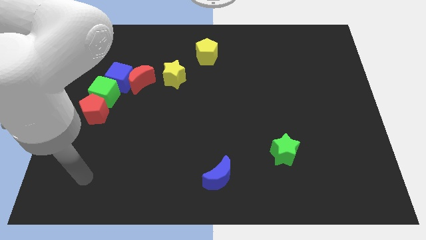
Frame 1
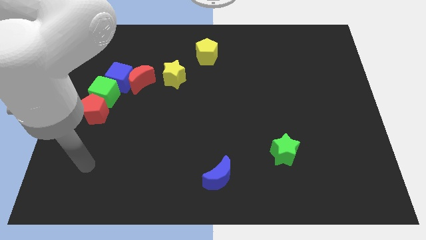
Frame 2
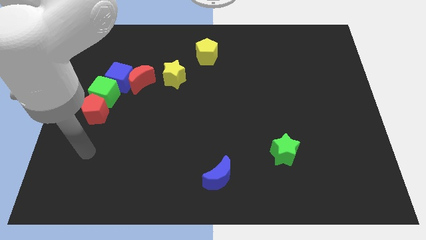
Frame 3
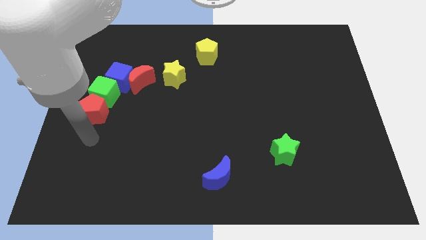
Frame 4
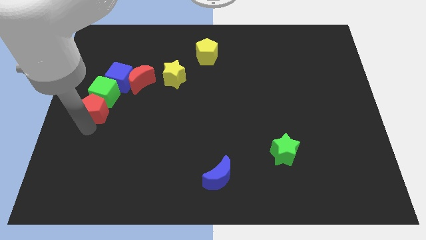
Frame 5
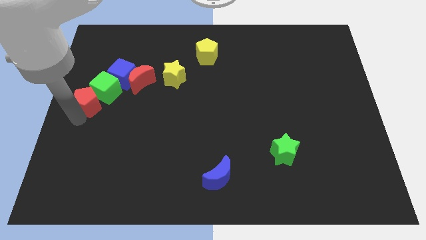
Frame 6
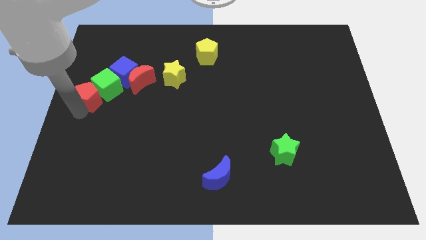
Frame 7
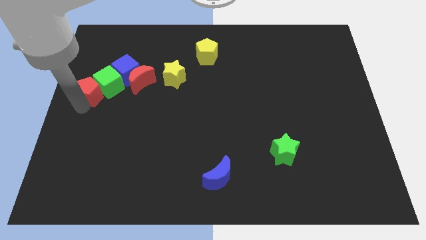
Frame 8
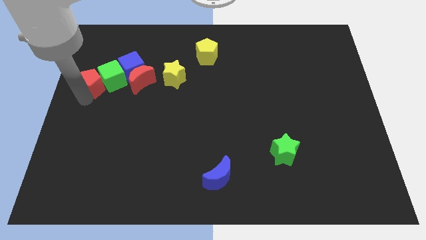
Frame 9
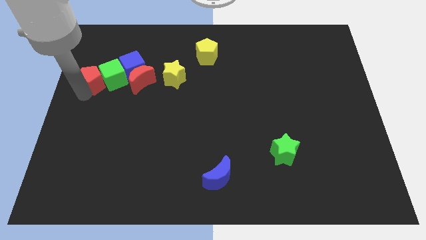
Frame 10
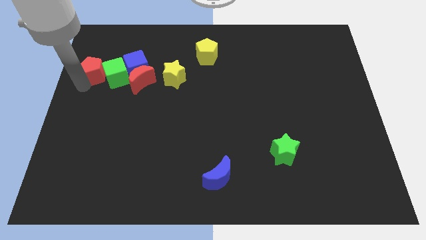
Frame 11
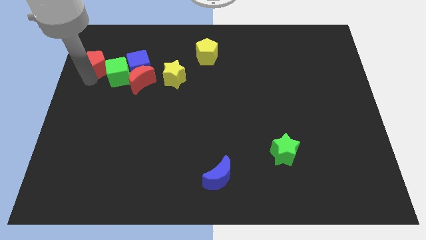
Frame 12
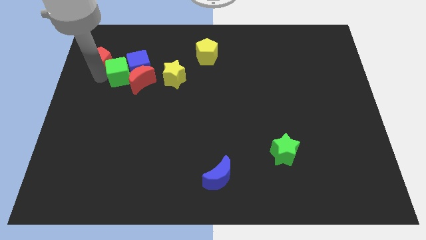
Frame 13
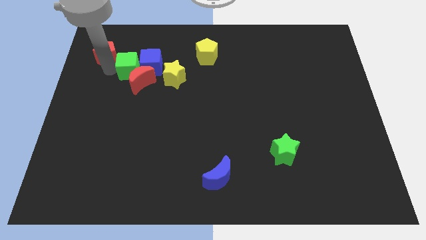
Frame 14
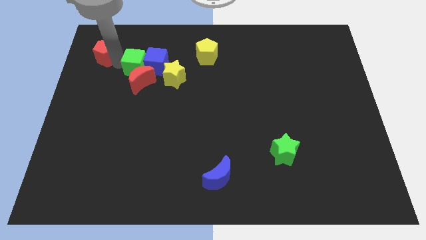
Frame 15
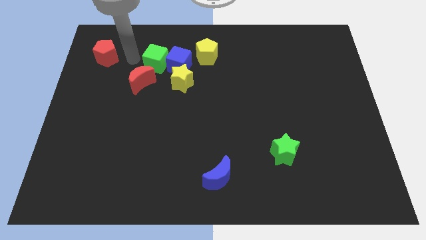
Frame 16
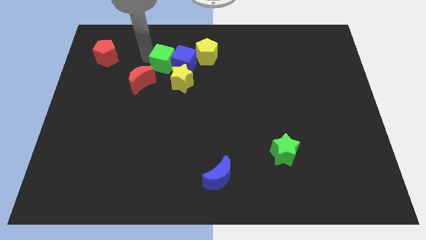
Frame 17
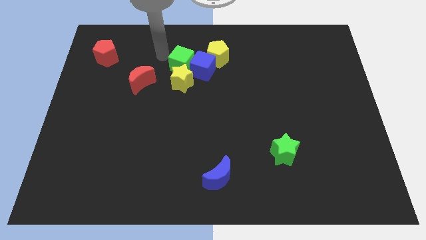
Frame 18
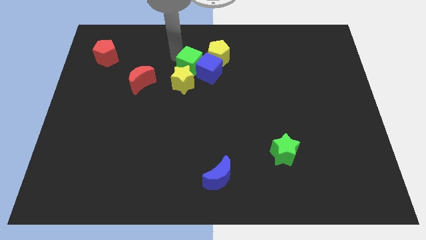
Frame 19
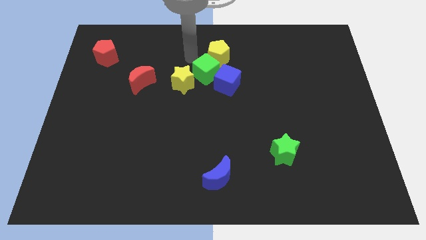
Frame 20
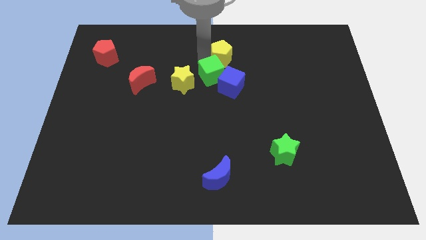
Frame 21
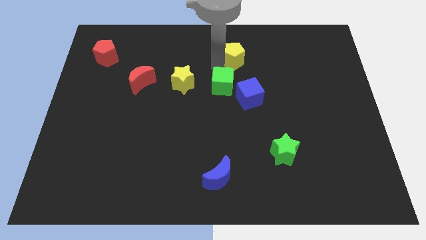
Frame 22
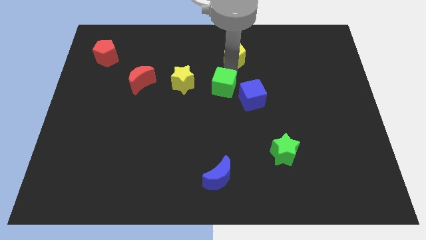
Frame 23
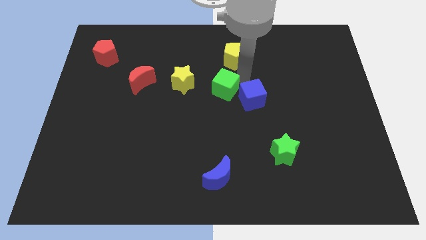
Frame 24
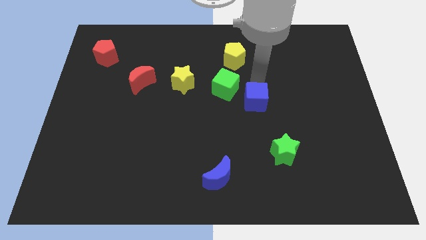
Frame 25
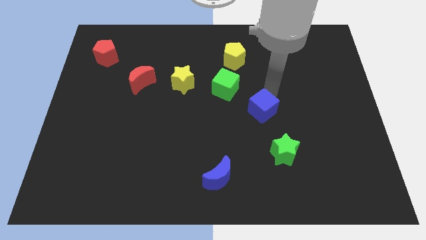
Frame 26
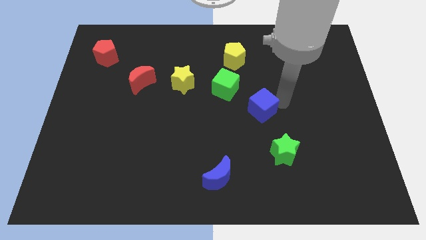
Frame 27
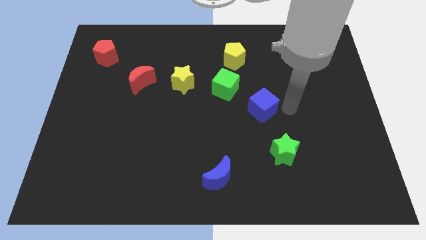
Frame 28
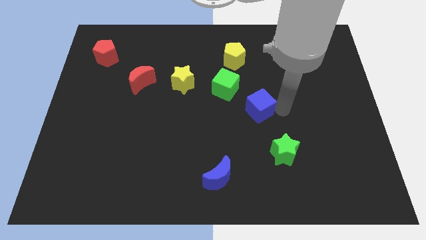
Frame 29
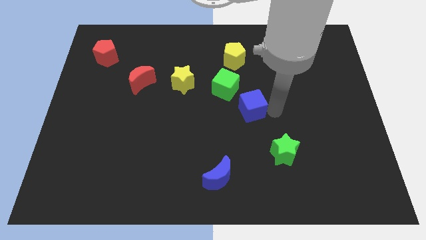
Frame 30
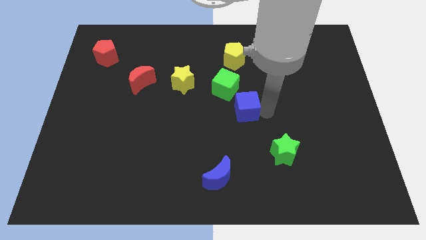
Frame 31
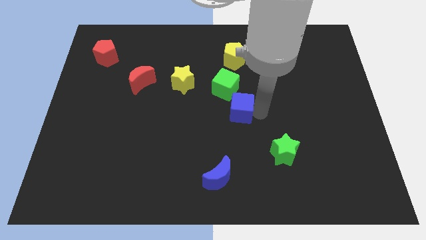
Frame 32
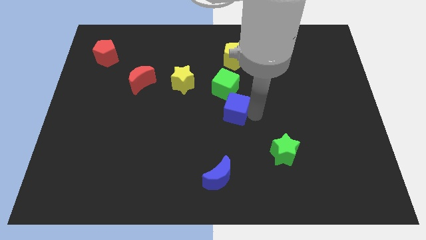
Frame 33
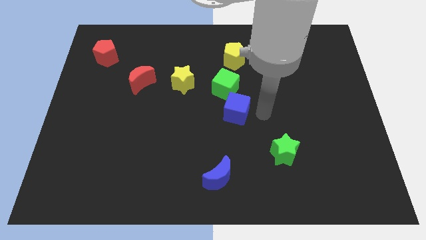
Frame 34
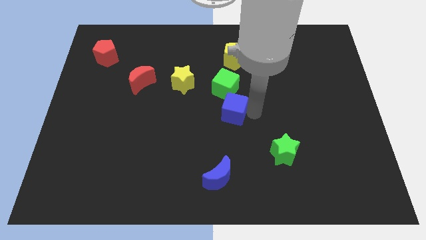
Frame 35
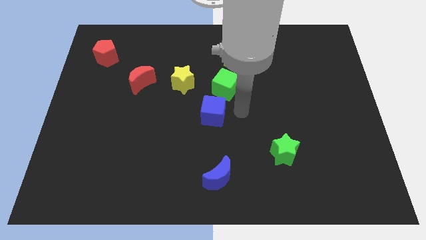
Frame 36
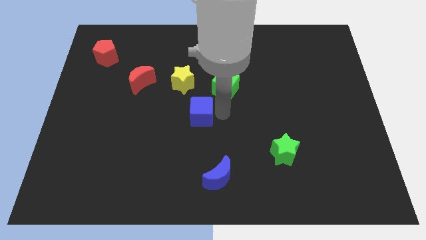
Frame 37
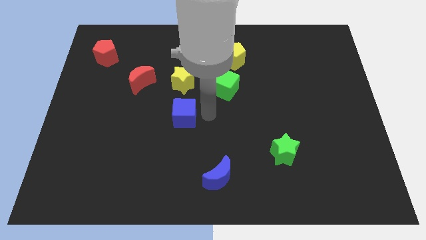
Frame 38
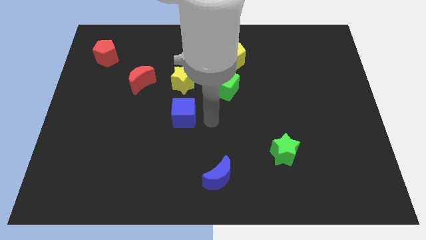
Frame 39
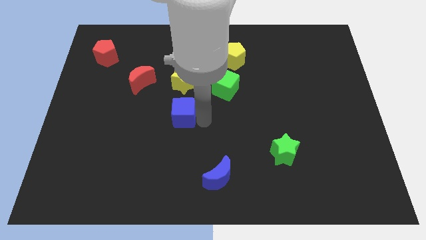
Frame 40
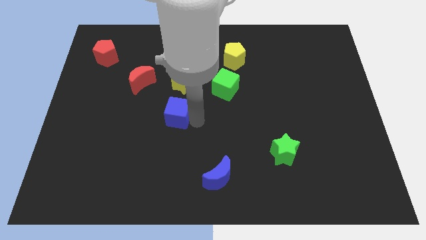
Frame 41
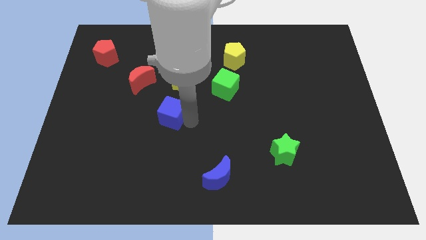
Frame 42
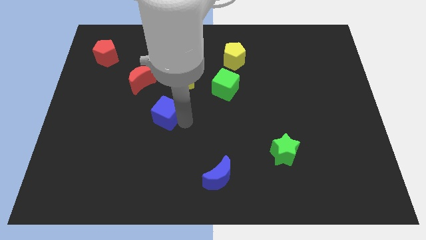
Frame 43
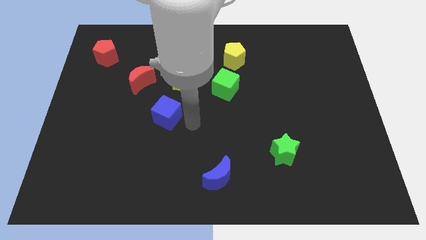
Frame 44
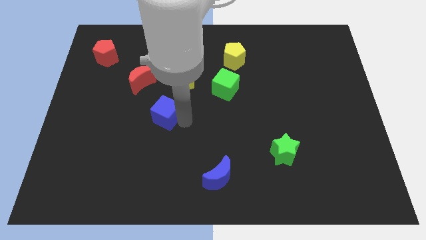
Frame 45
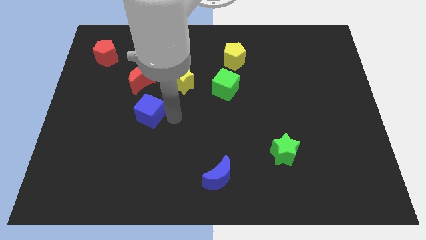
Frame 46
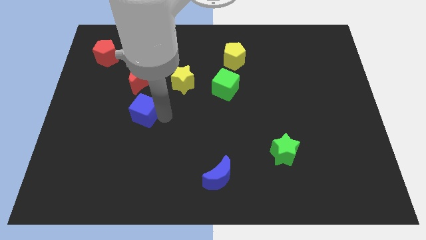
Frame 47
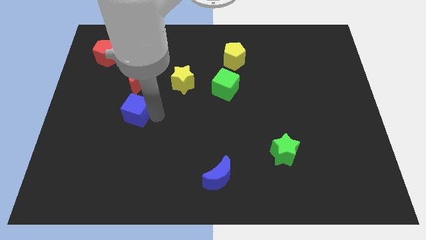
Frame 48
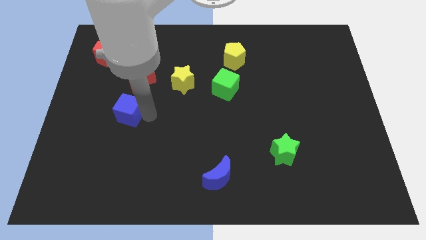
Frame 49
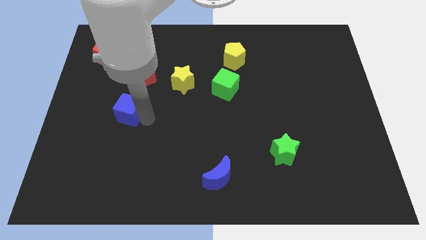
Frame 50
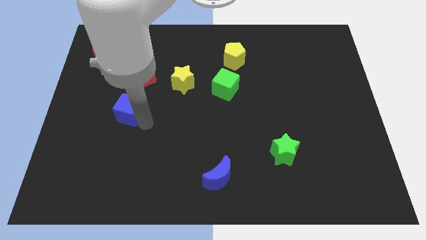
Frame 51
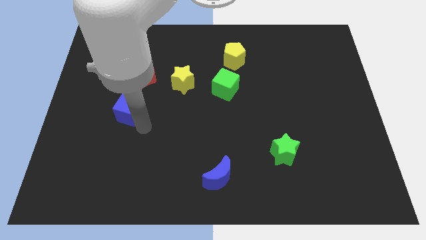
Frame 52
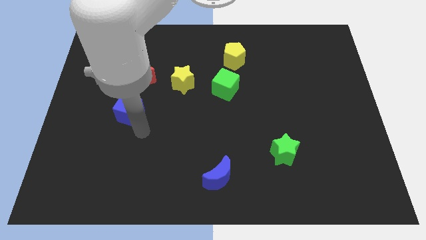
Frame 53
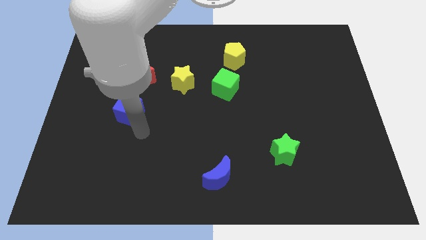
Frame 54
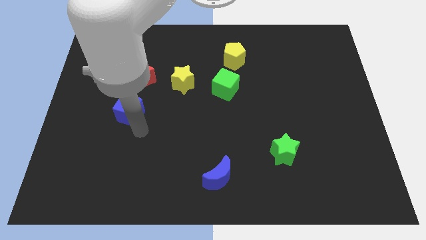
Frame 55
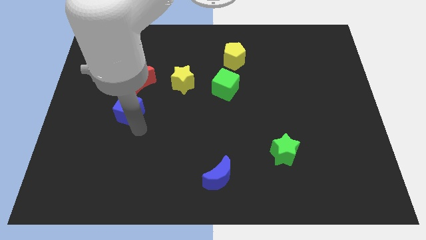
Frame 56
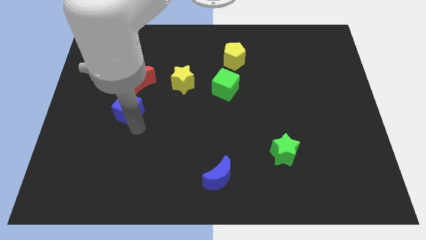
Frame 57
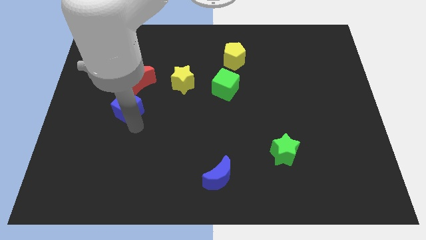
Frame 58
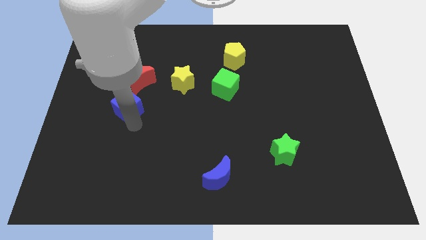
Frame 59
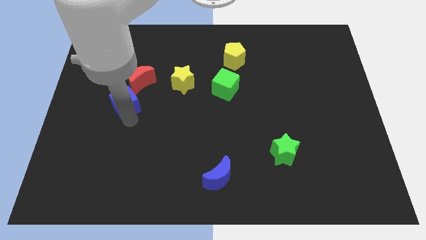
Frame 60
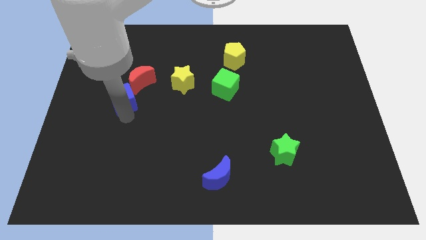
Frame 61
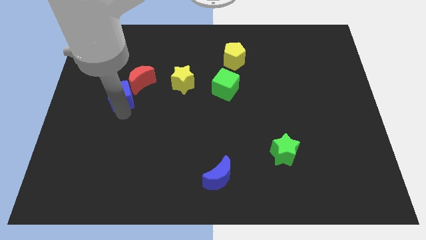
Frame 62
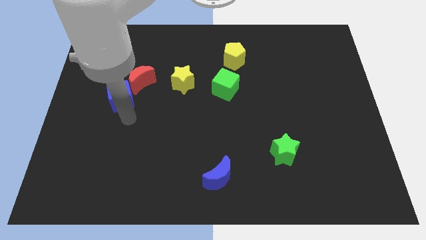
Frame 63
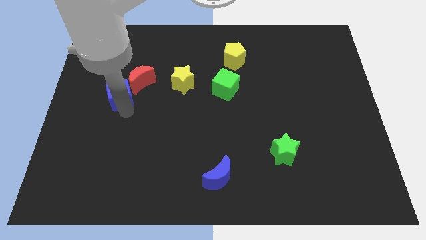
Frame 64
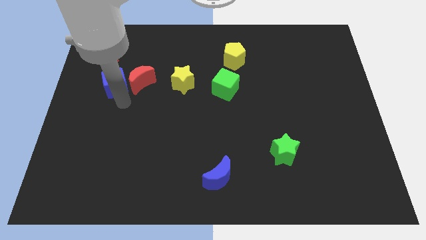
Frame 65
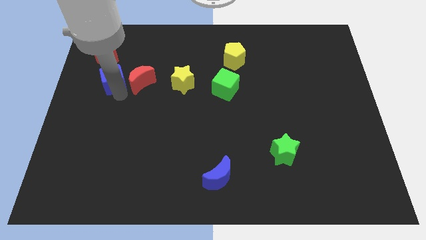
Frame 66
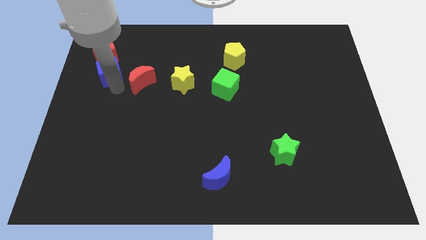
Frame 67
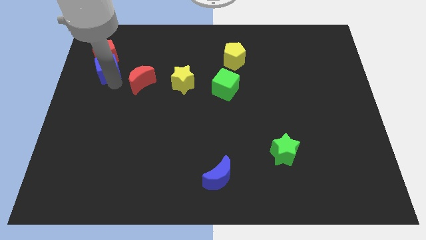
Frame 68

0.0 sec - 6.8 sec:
move the blue cube to the red pentagon

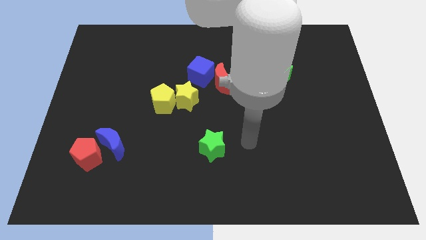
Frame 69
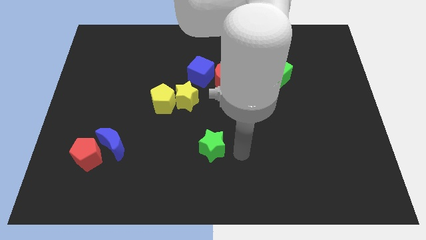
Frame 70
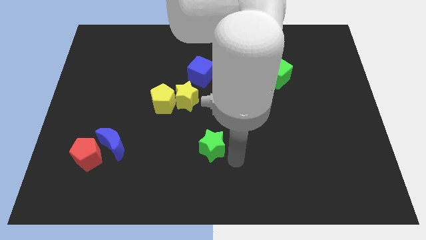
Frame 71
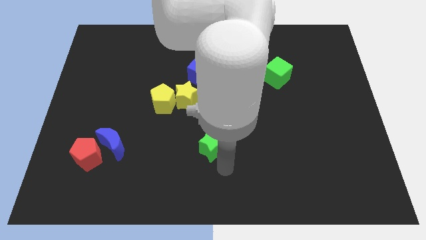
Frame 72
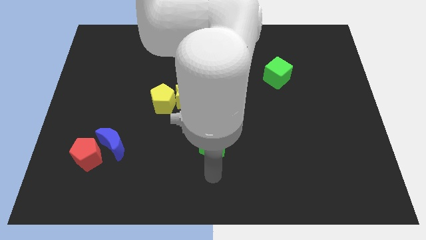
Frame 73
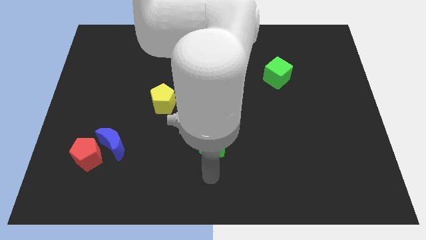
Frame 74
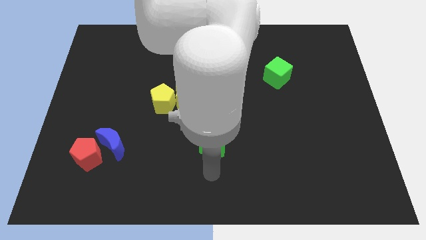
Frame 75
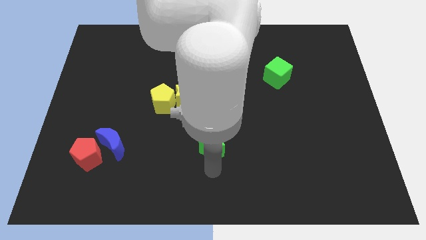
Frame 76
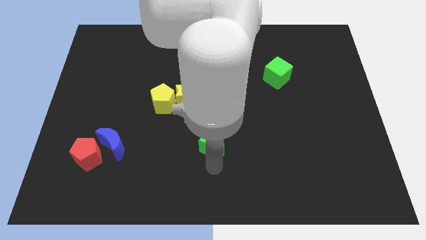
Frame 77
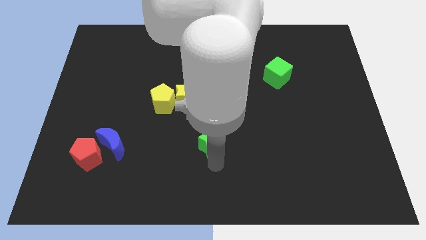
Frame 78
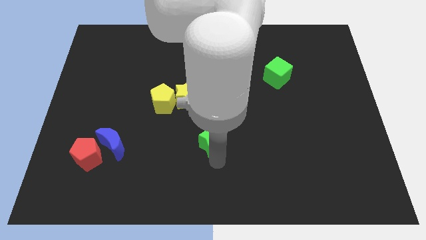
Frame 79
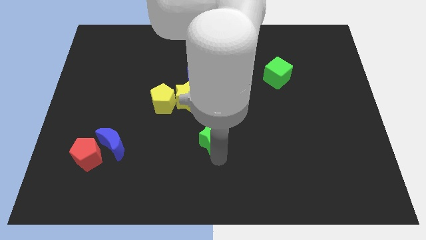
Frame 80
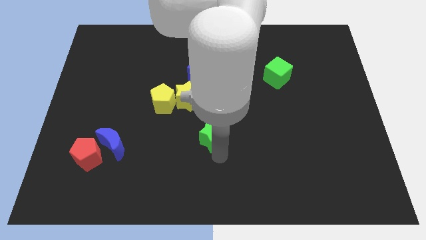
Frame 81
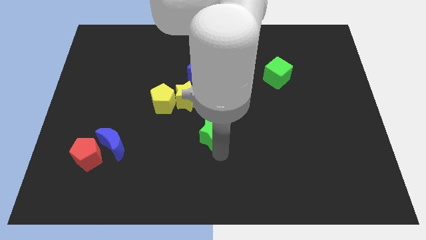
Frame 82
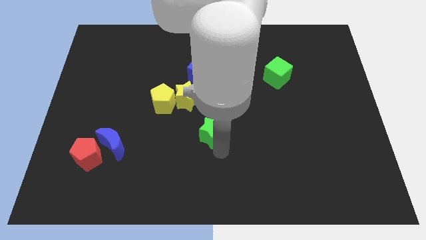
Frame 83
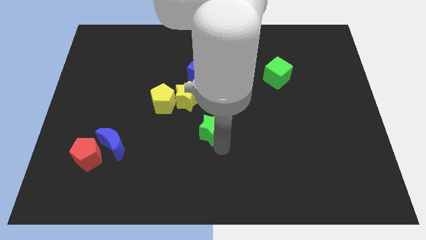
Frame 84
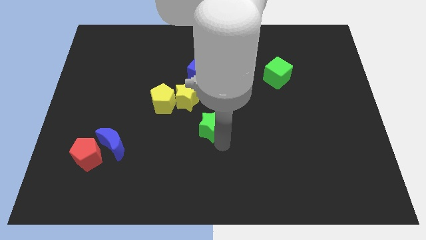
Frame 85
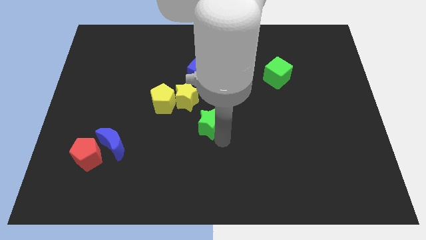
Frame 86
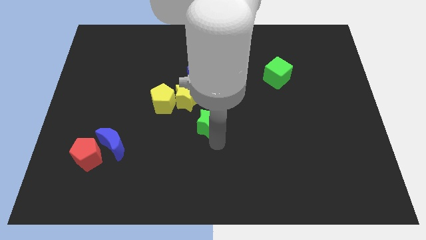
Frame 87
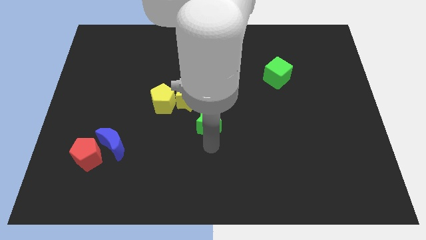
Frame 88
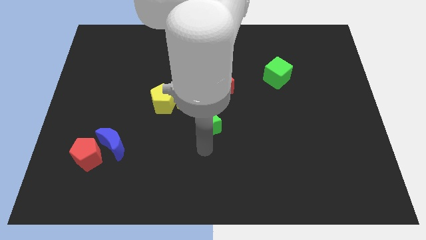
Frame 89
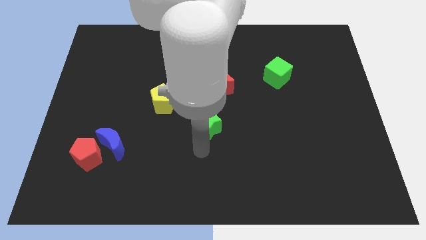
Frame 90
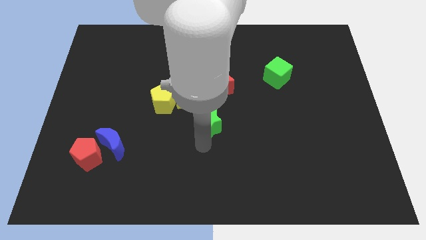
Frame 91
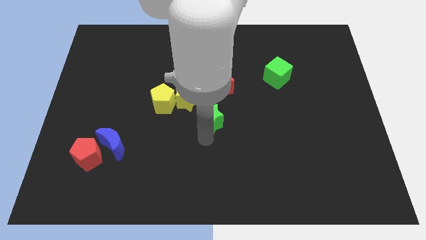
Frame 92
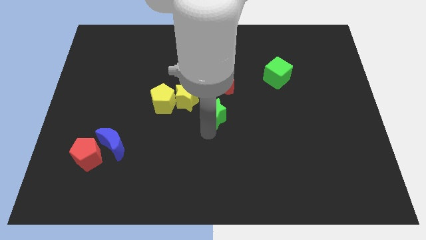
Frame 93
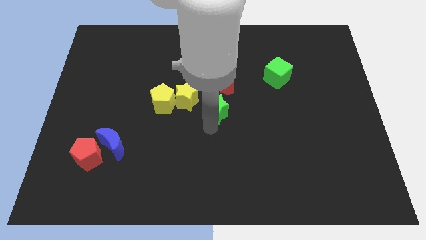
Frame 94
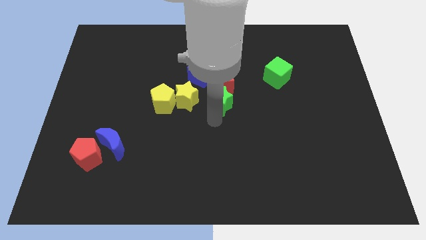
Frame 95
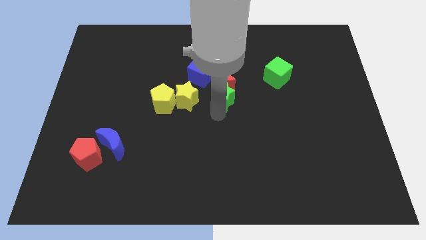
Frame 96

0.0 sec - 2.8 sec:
slide the green star close to the red moon
